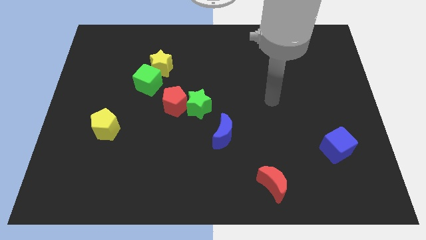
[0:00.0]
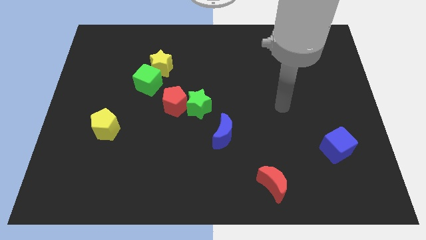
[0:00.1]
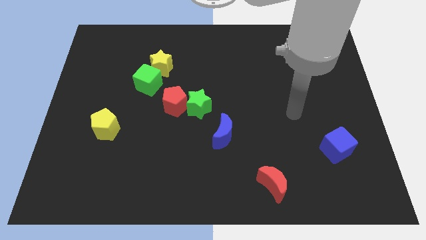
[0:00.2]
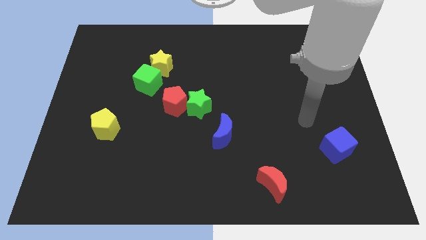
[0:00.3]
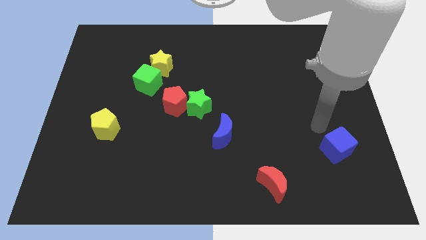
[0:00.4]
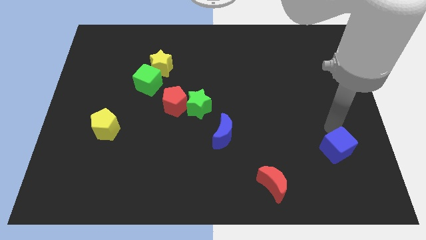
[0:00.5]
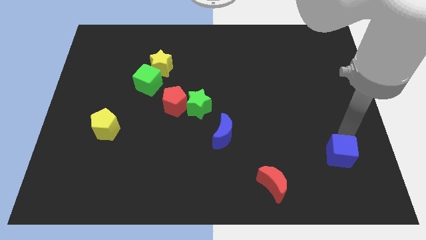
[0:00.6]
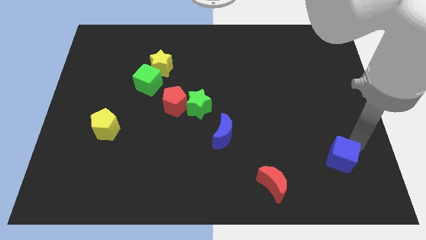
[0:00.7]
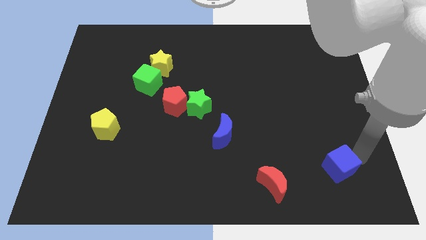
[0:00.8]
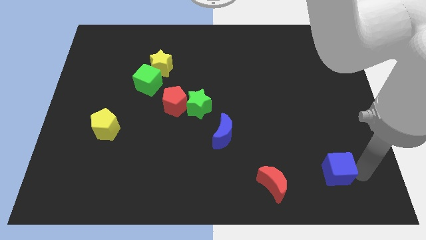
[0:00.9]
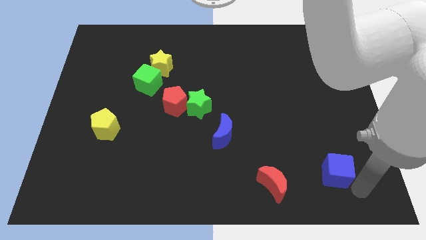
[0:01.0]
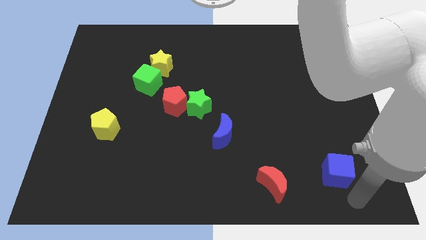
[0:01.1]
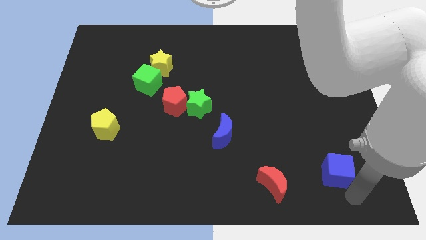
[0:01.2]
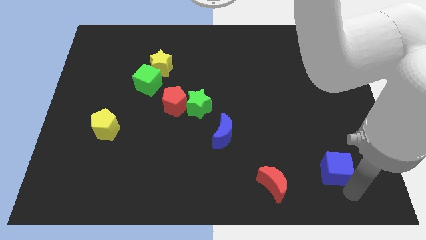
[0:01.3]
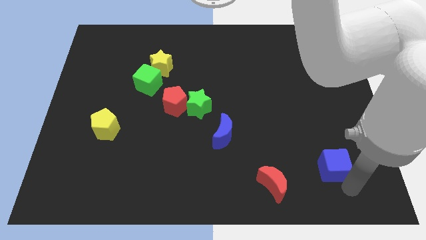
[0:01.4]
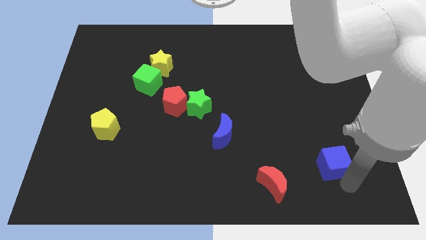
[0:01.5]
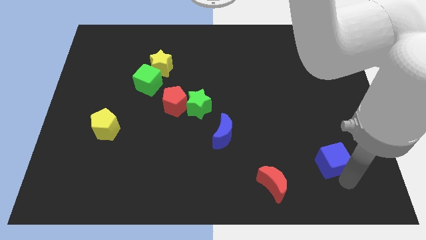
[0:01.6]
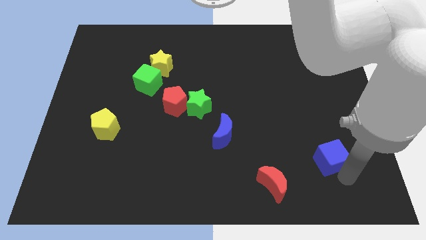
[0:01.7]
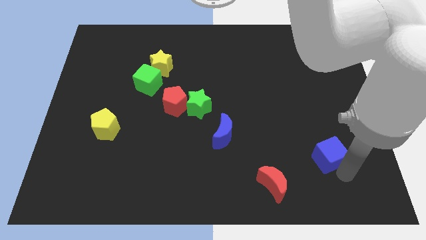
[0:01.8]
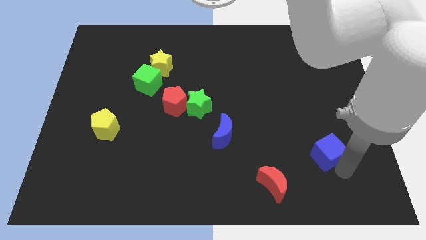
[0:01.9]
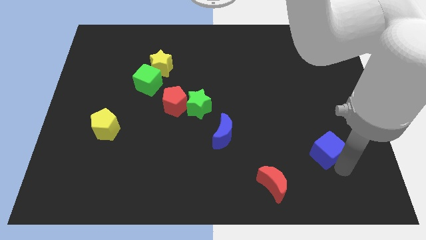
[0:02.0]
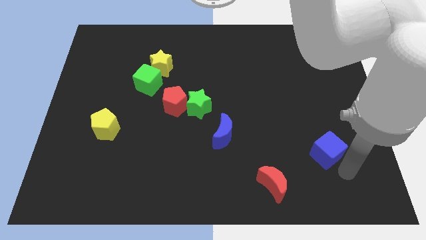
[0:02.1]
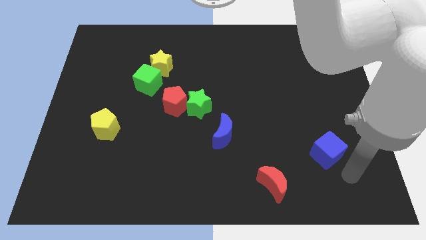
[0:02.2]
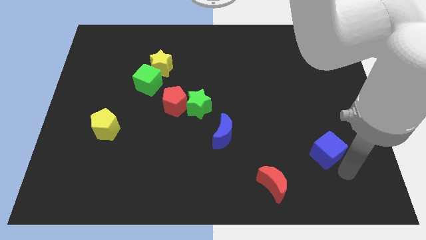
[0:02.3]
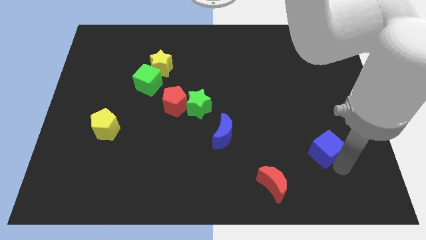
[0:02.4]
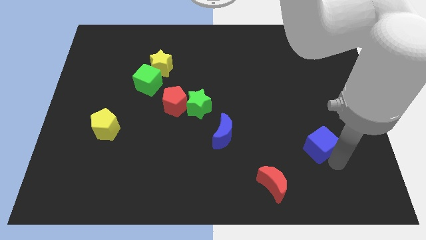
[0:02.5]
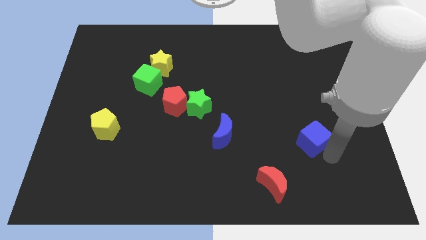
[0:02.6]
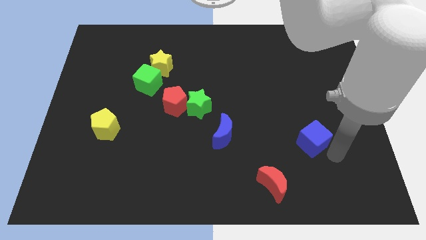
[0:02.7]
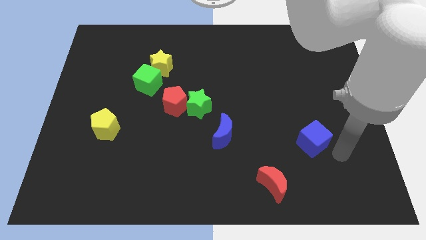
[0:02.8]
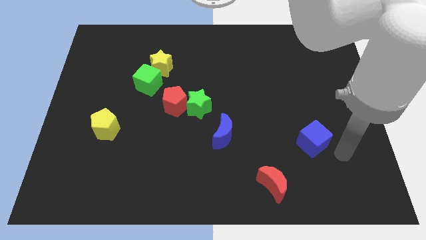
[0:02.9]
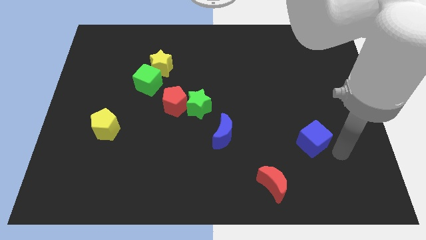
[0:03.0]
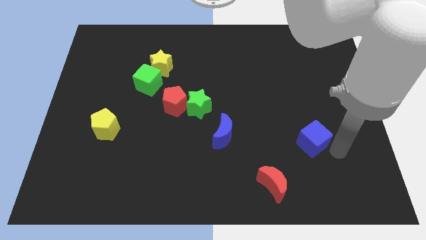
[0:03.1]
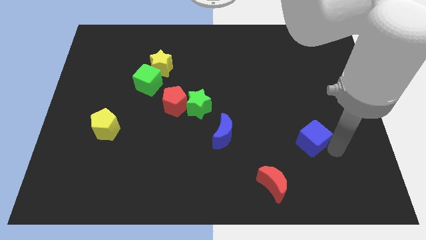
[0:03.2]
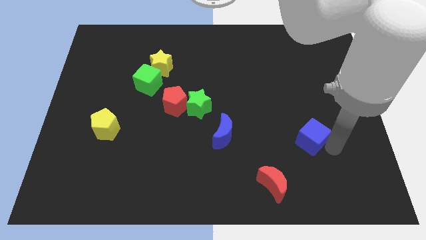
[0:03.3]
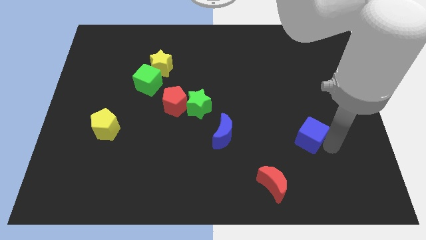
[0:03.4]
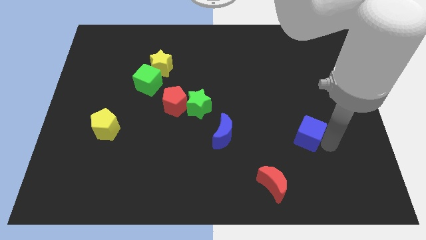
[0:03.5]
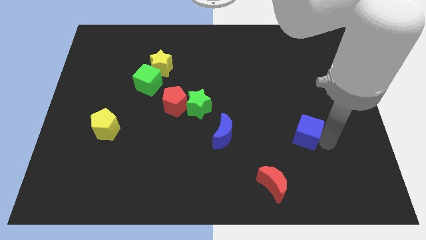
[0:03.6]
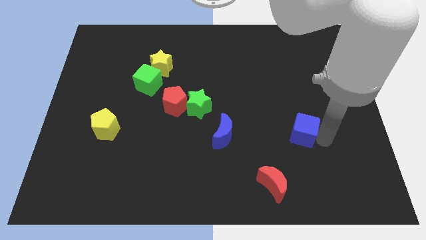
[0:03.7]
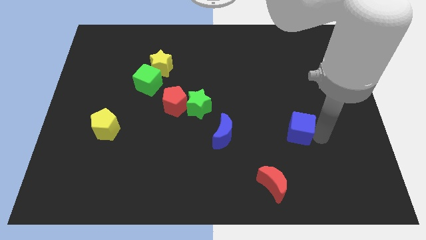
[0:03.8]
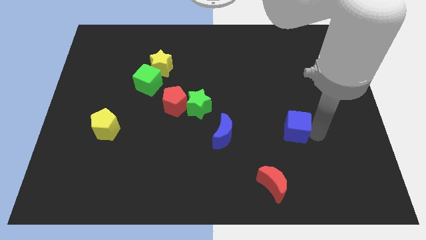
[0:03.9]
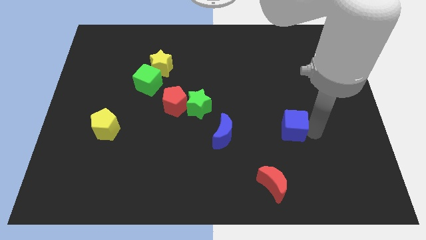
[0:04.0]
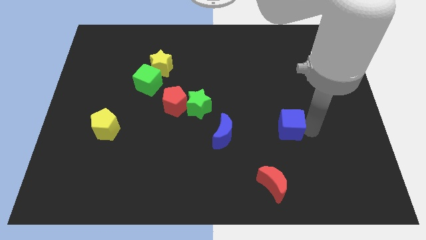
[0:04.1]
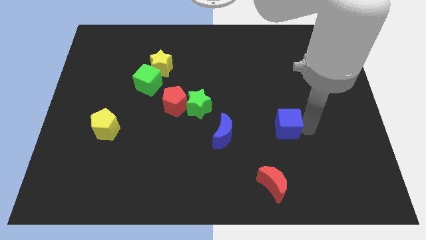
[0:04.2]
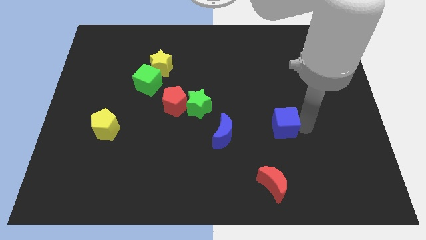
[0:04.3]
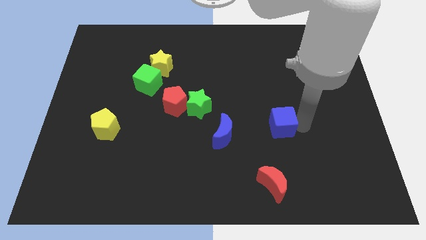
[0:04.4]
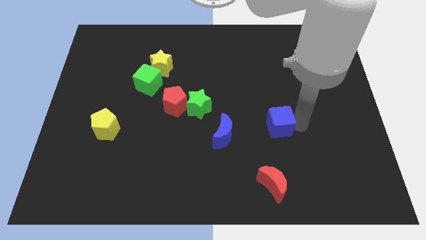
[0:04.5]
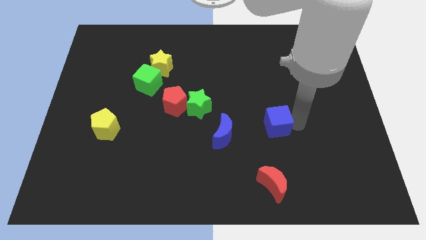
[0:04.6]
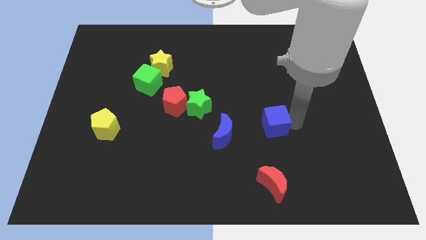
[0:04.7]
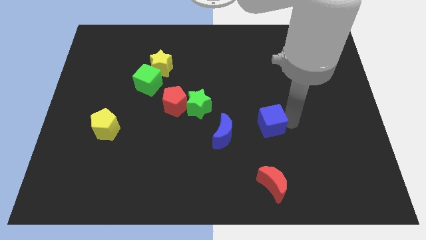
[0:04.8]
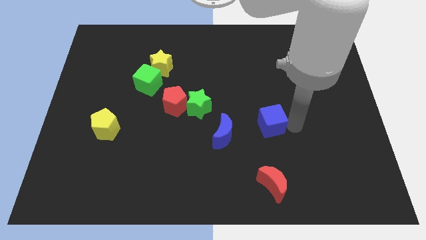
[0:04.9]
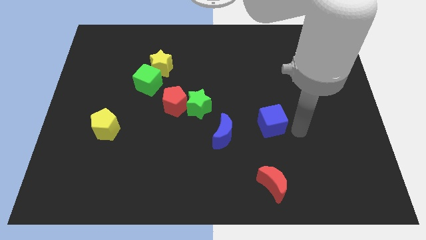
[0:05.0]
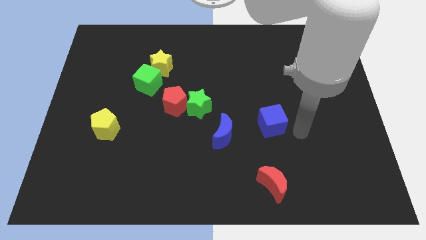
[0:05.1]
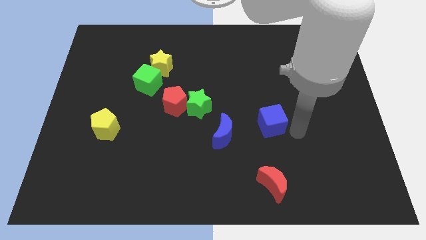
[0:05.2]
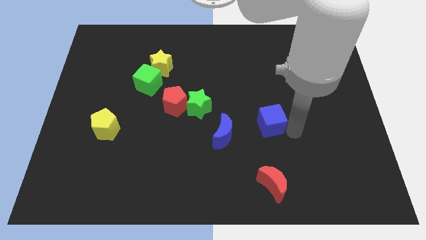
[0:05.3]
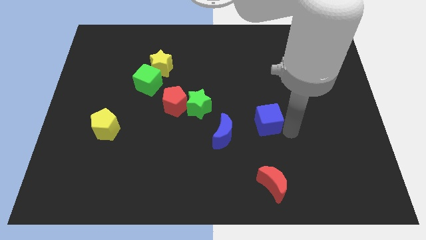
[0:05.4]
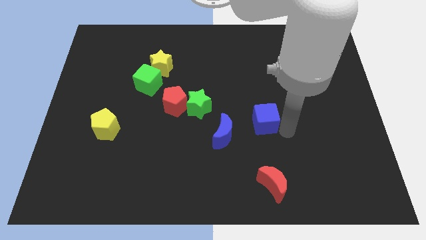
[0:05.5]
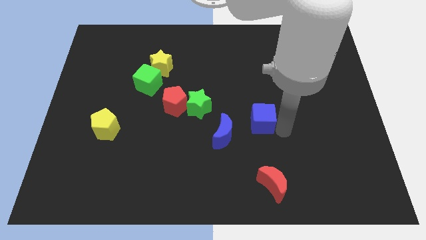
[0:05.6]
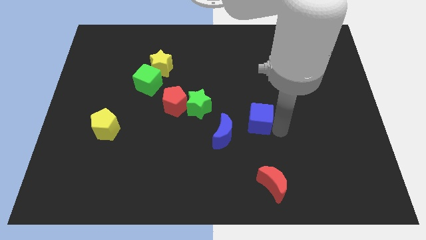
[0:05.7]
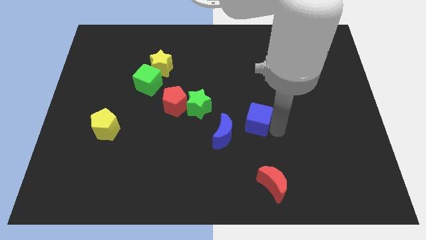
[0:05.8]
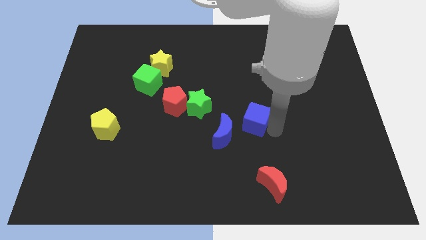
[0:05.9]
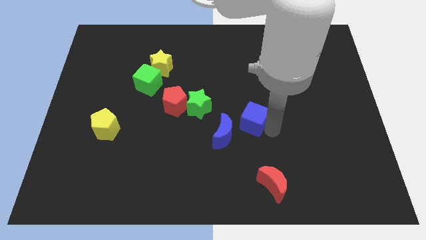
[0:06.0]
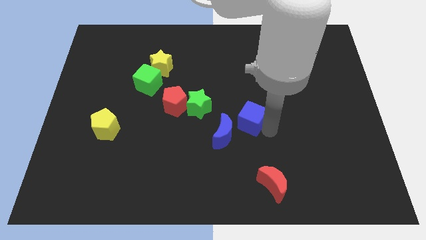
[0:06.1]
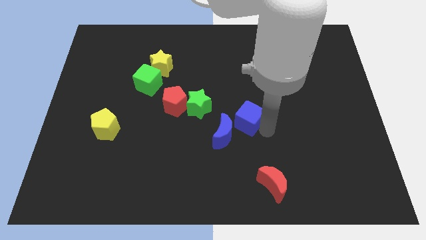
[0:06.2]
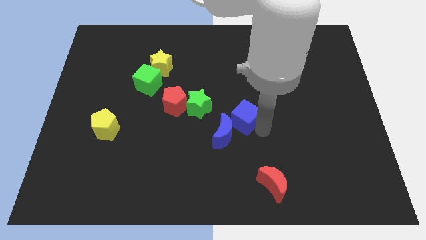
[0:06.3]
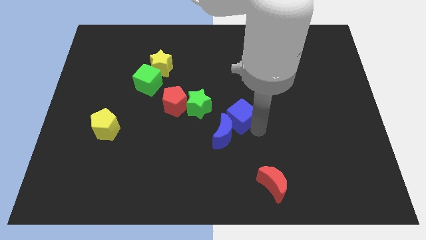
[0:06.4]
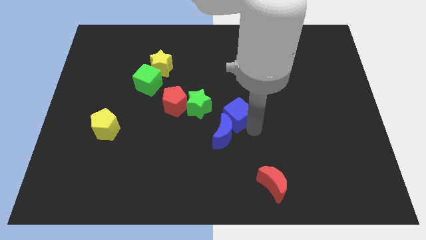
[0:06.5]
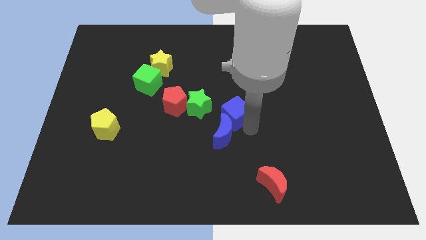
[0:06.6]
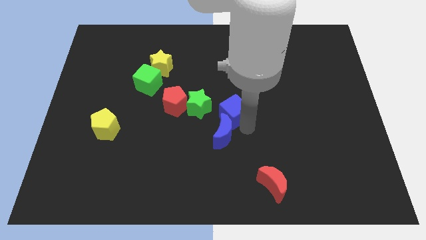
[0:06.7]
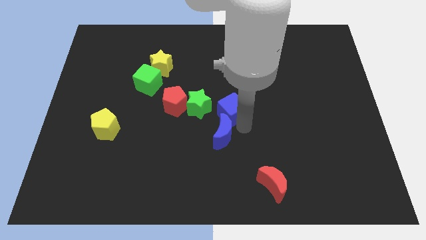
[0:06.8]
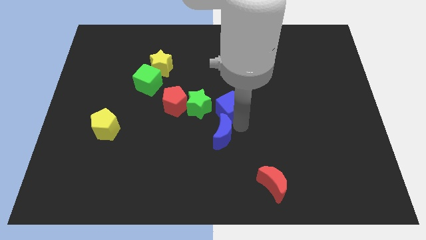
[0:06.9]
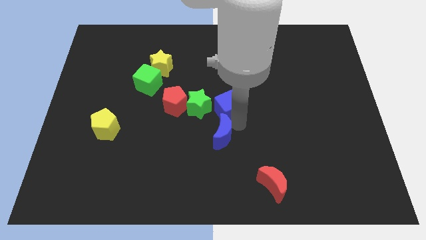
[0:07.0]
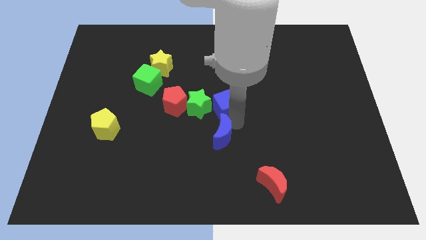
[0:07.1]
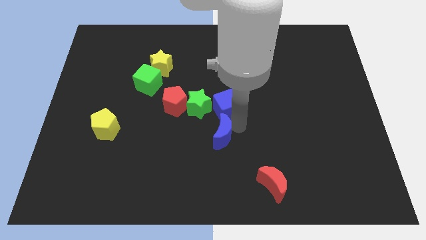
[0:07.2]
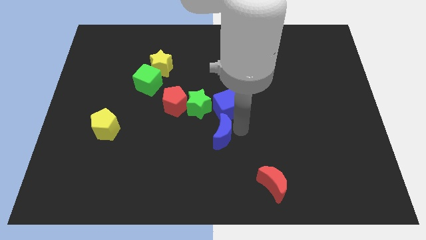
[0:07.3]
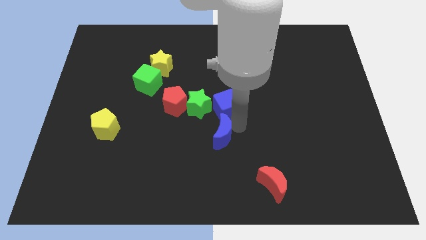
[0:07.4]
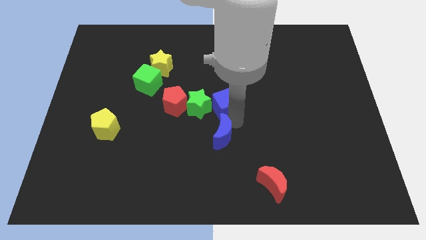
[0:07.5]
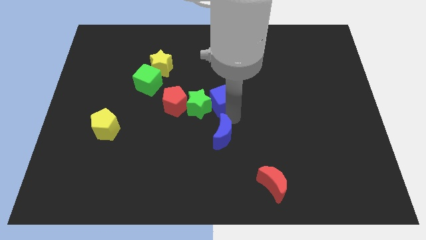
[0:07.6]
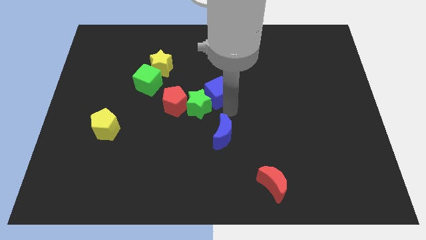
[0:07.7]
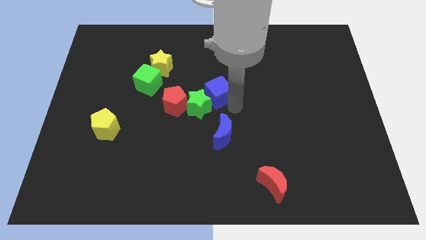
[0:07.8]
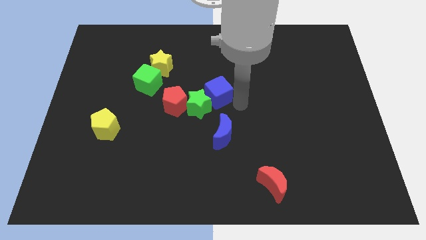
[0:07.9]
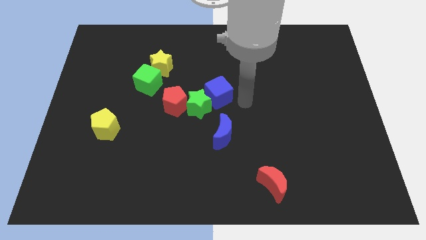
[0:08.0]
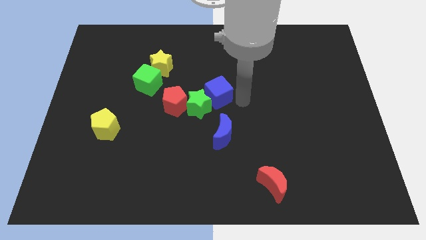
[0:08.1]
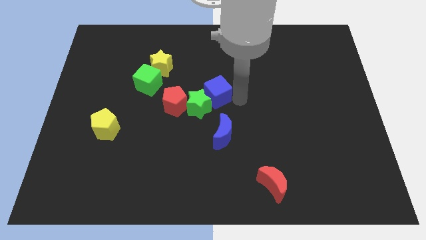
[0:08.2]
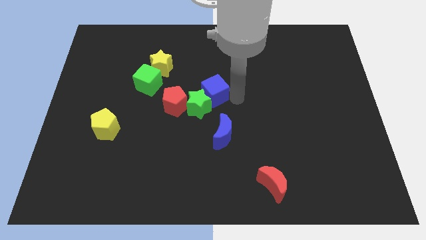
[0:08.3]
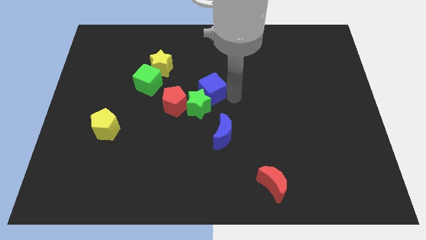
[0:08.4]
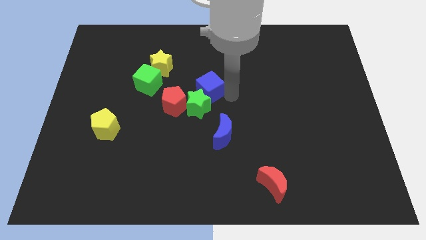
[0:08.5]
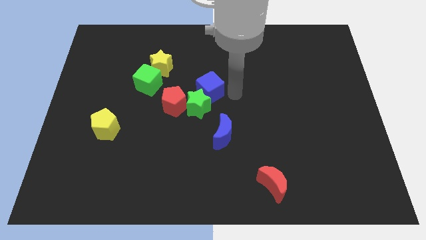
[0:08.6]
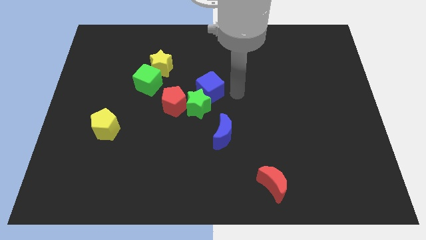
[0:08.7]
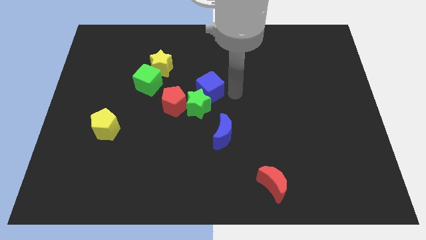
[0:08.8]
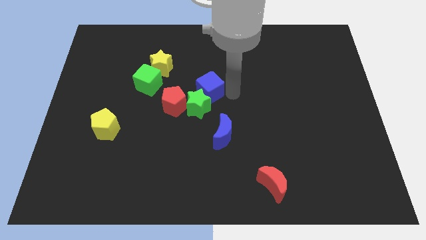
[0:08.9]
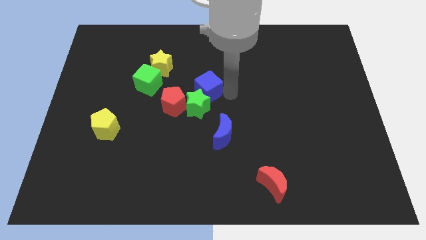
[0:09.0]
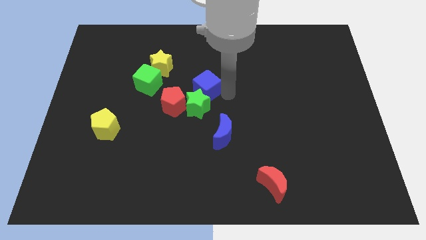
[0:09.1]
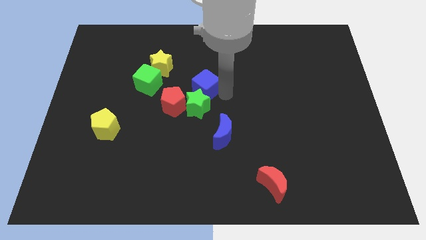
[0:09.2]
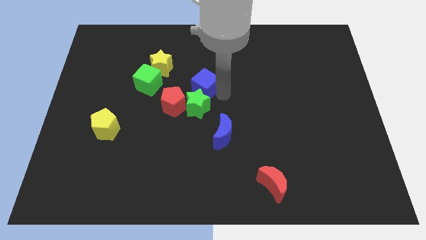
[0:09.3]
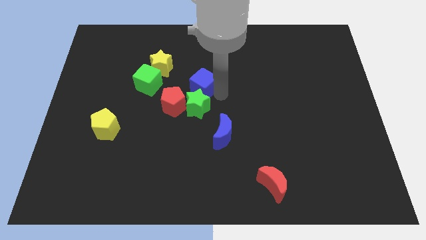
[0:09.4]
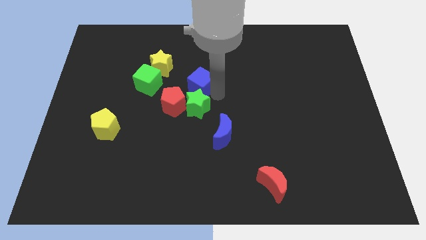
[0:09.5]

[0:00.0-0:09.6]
slide the blue cube to the bottom right of the yellow star
